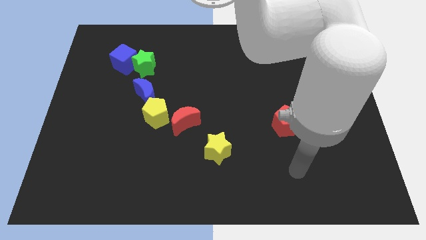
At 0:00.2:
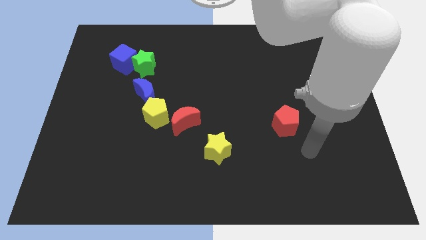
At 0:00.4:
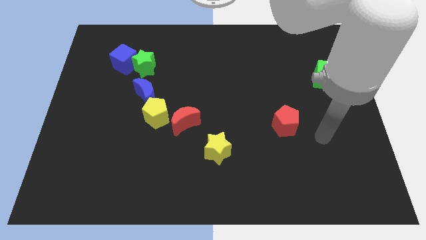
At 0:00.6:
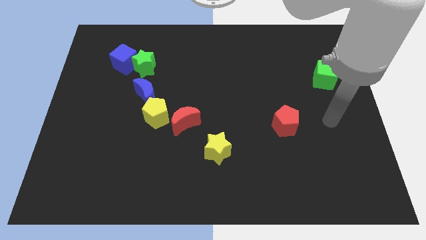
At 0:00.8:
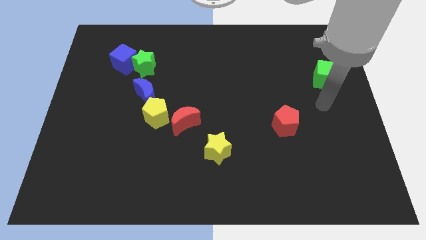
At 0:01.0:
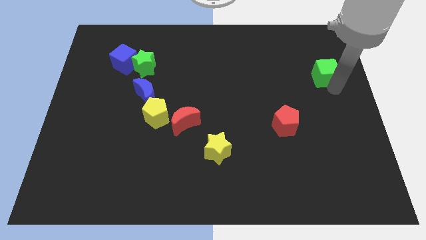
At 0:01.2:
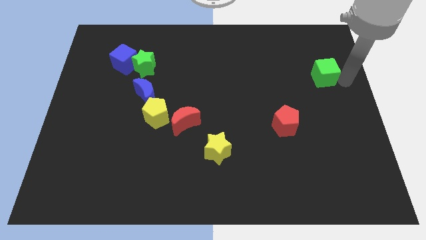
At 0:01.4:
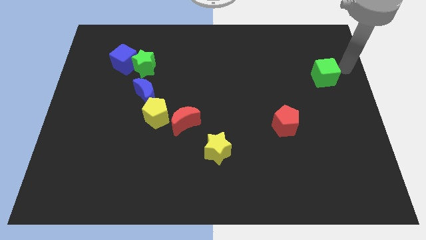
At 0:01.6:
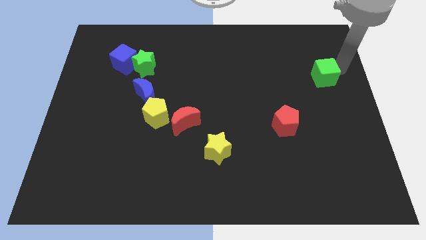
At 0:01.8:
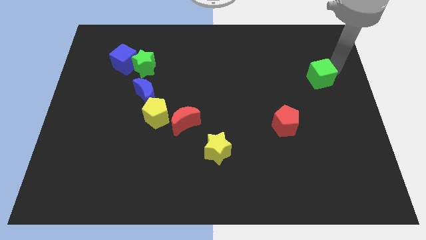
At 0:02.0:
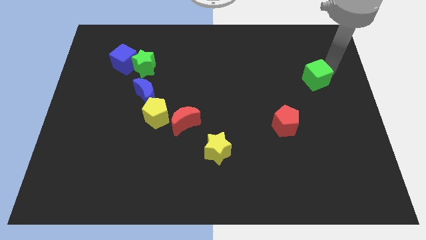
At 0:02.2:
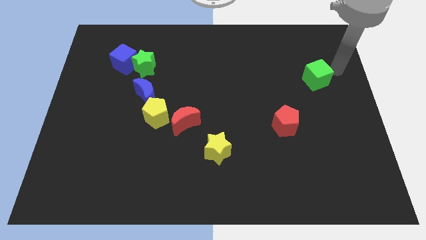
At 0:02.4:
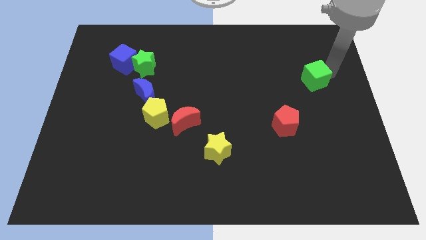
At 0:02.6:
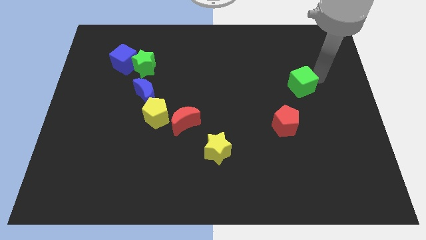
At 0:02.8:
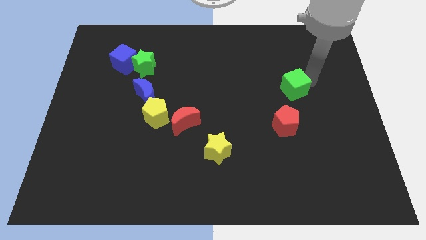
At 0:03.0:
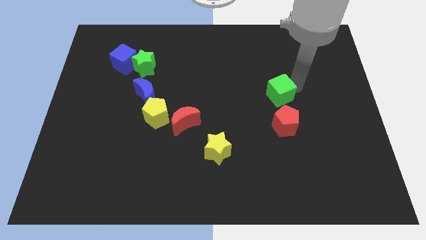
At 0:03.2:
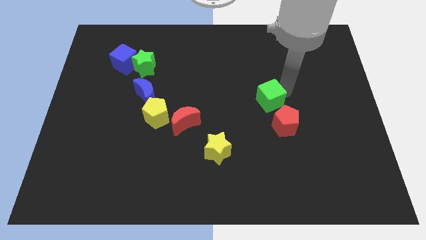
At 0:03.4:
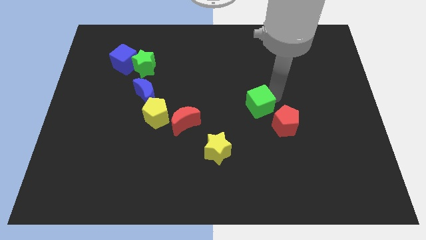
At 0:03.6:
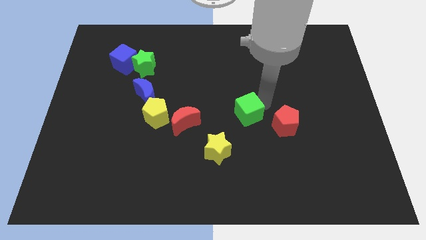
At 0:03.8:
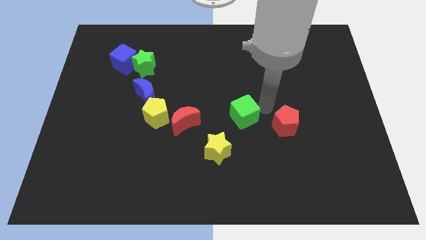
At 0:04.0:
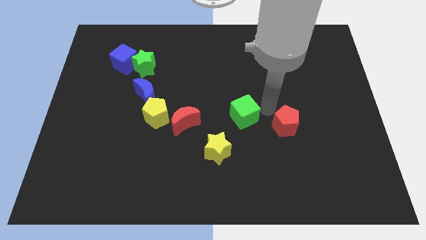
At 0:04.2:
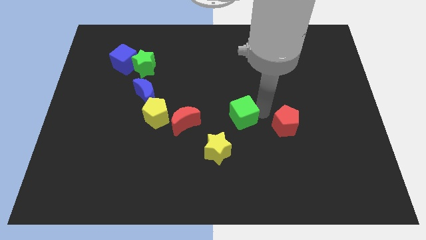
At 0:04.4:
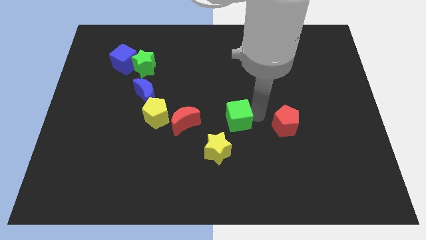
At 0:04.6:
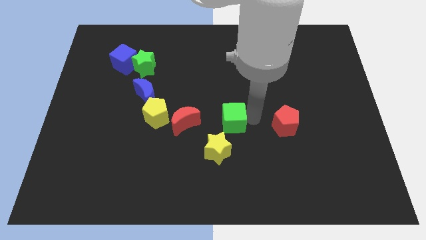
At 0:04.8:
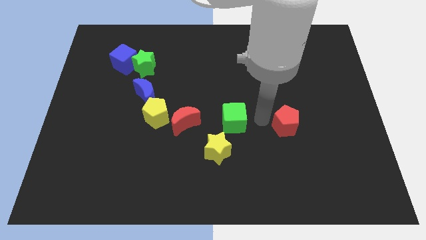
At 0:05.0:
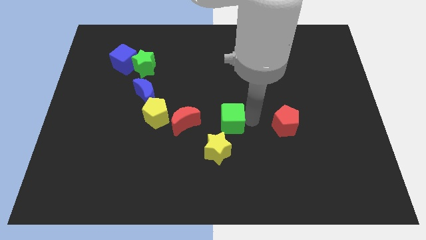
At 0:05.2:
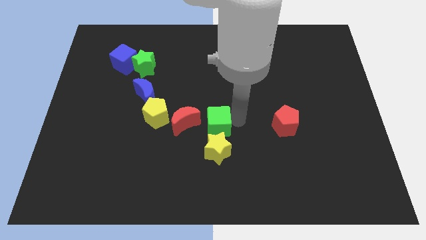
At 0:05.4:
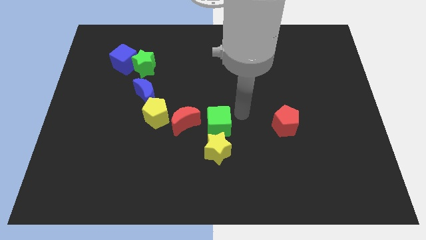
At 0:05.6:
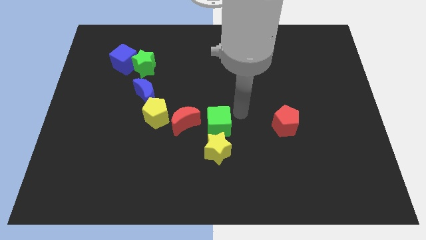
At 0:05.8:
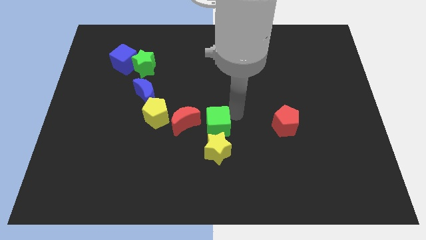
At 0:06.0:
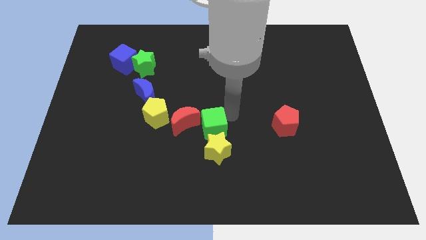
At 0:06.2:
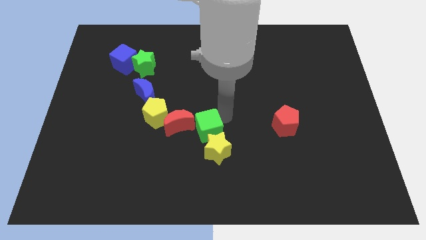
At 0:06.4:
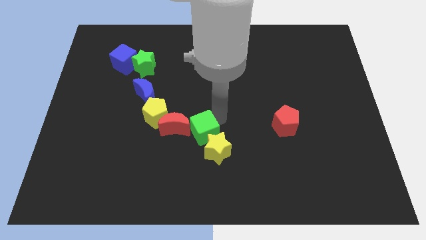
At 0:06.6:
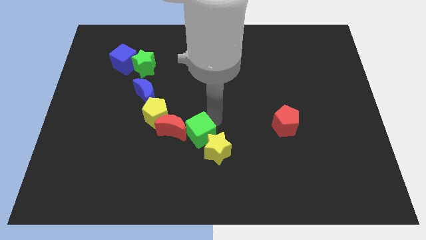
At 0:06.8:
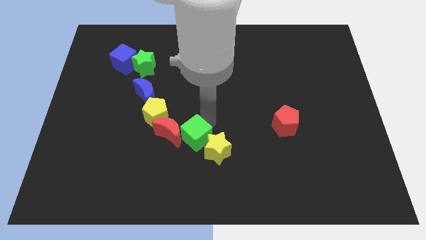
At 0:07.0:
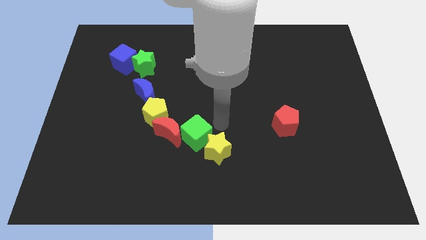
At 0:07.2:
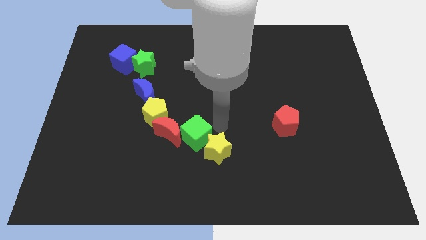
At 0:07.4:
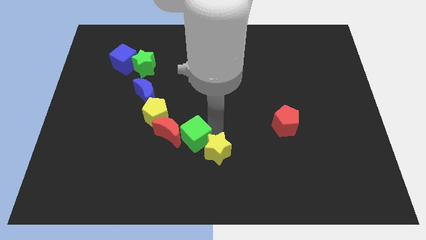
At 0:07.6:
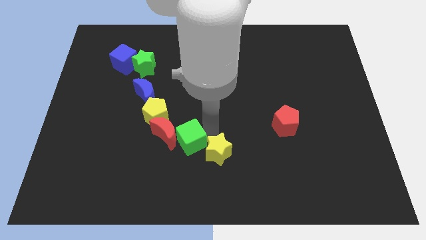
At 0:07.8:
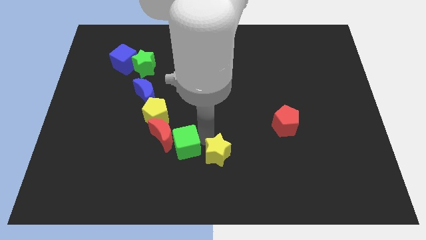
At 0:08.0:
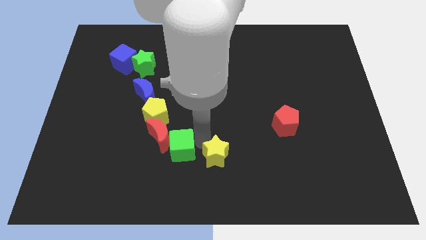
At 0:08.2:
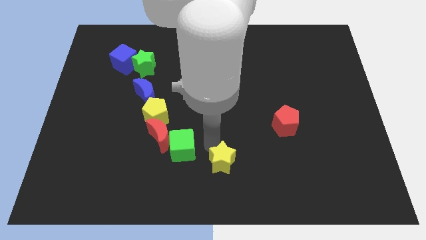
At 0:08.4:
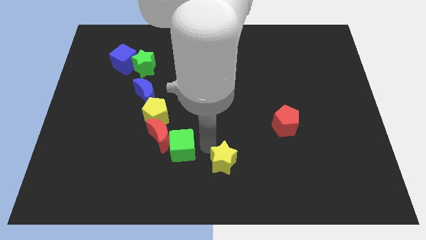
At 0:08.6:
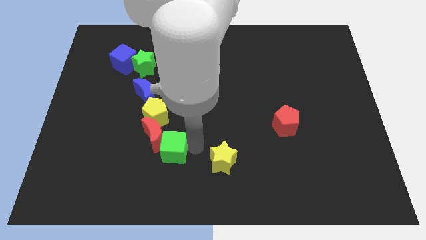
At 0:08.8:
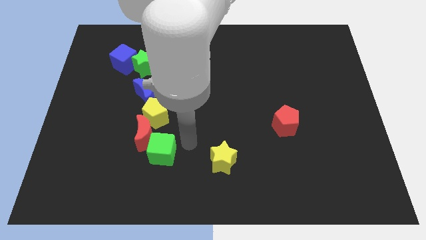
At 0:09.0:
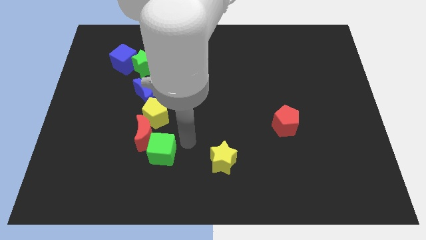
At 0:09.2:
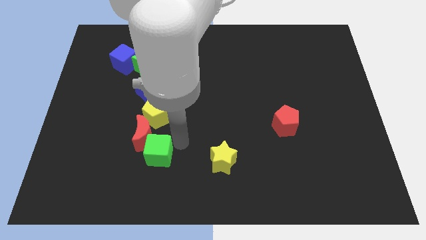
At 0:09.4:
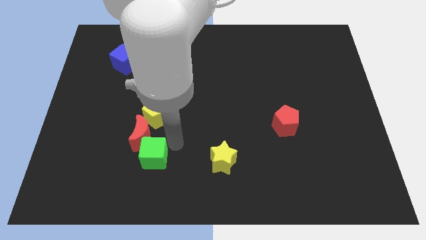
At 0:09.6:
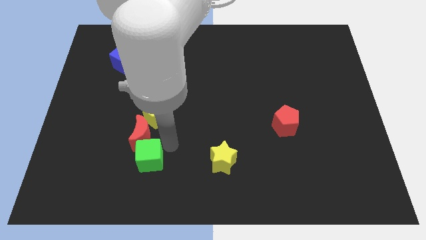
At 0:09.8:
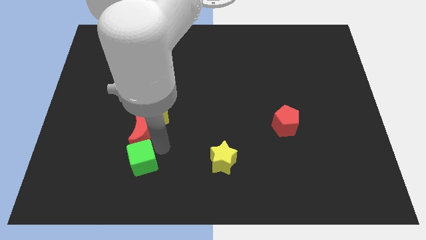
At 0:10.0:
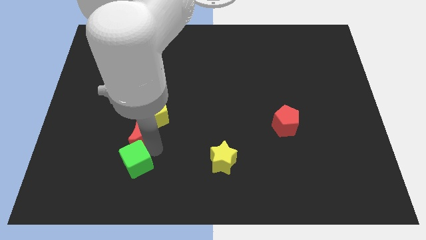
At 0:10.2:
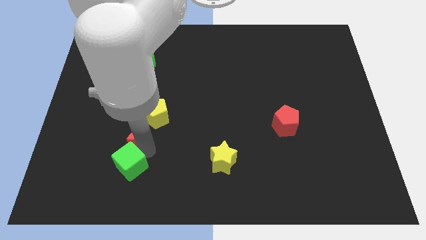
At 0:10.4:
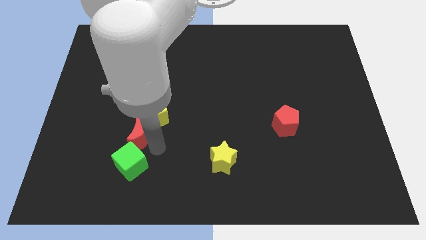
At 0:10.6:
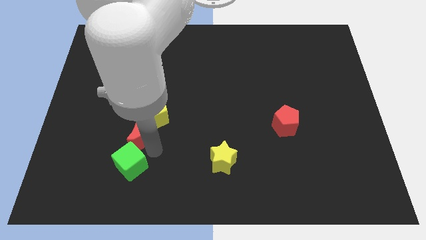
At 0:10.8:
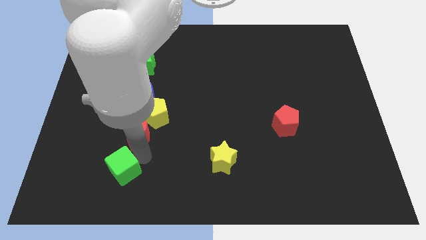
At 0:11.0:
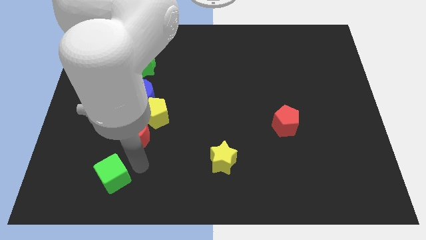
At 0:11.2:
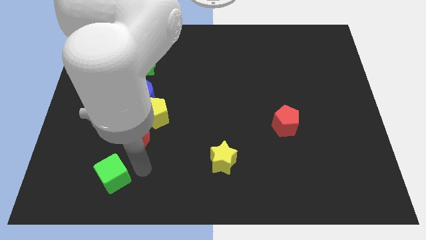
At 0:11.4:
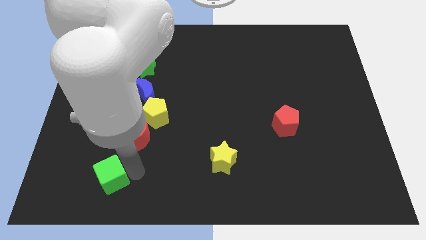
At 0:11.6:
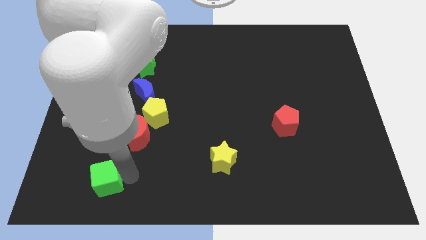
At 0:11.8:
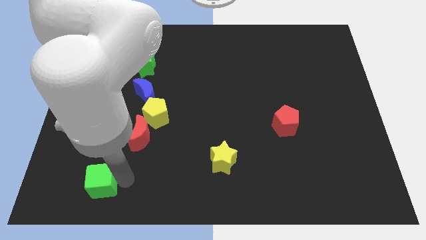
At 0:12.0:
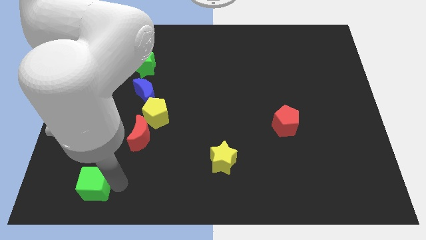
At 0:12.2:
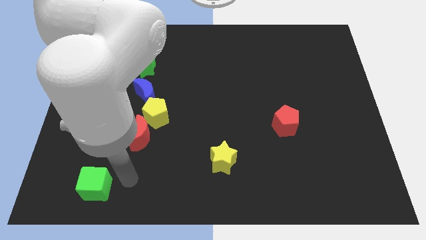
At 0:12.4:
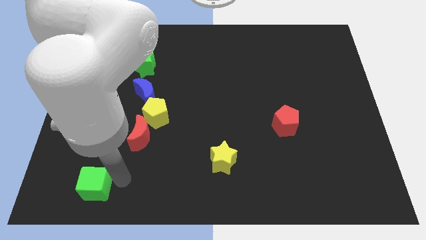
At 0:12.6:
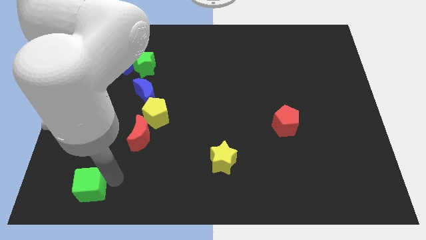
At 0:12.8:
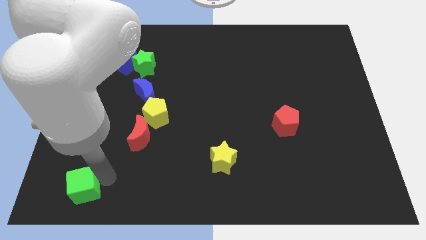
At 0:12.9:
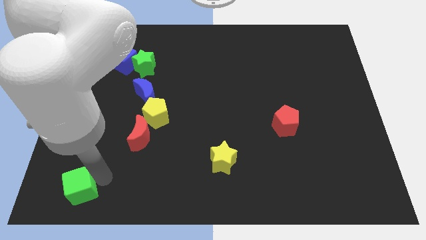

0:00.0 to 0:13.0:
move the green cube to the lower left corner
